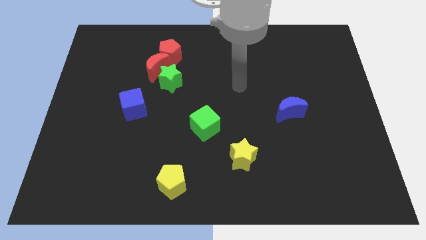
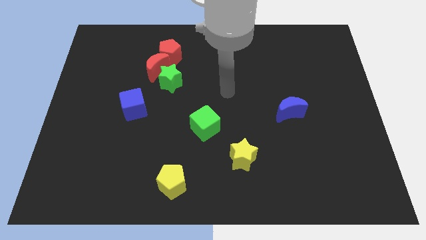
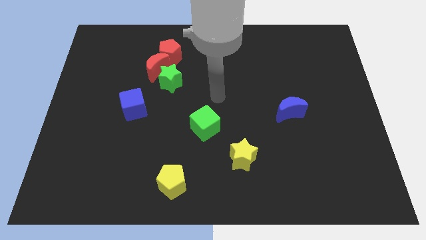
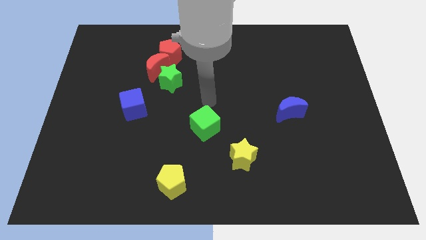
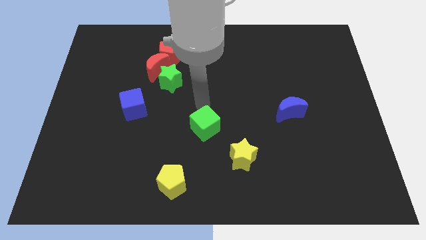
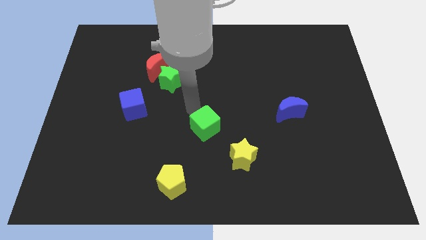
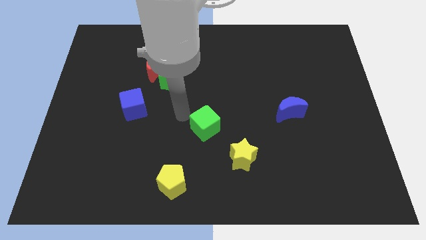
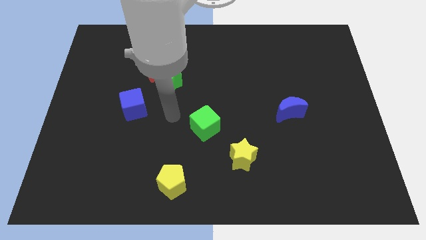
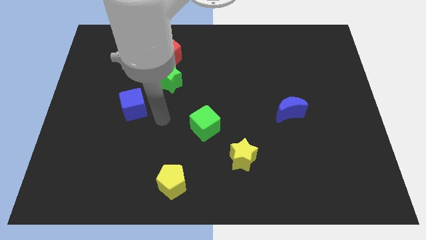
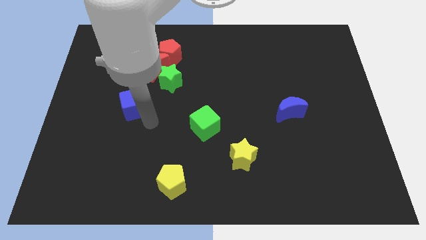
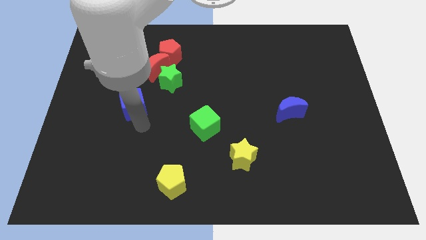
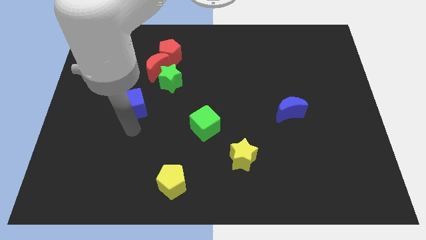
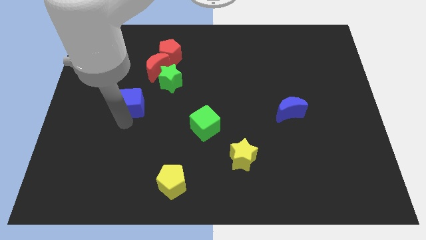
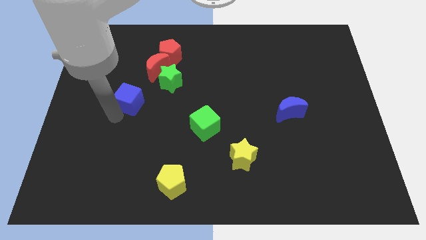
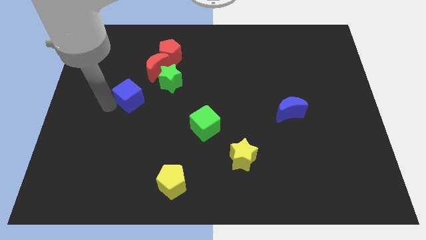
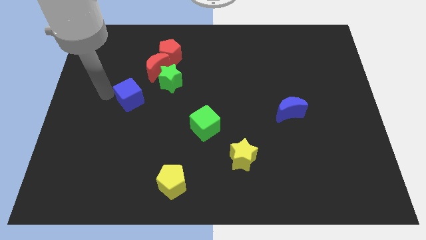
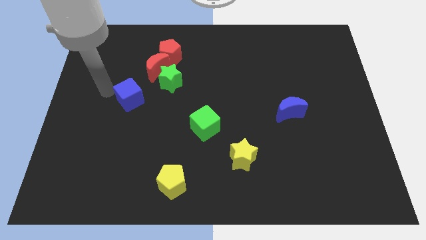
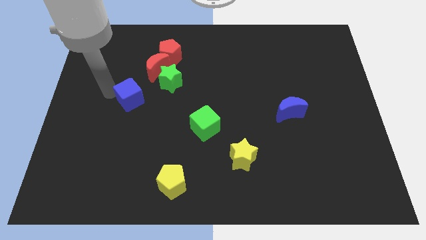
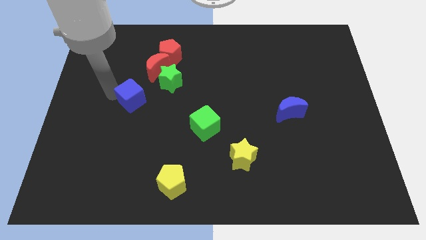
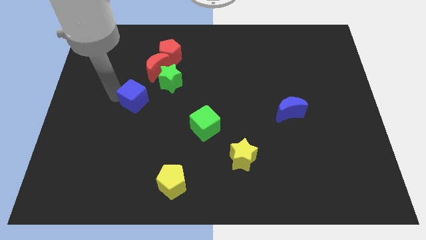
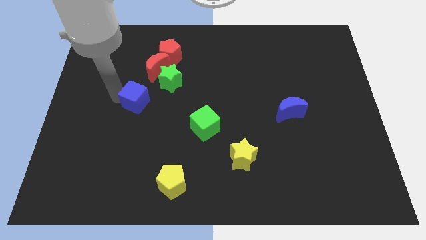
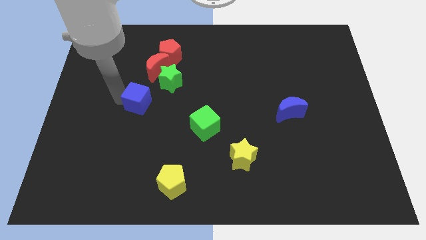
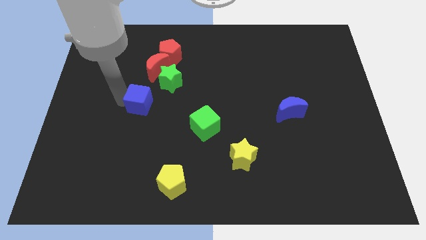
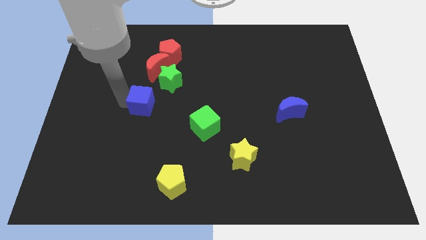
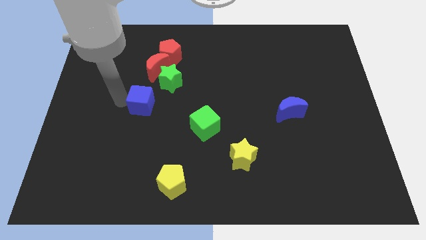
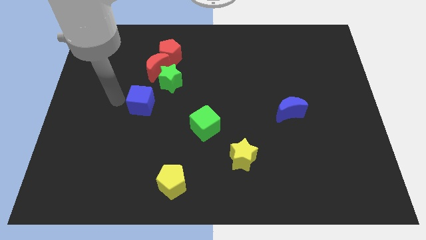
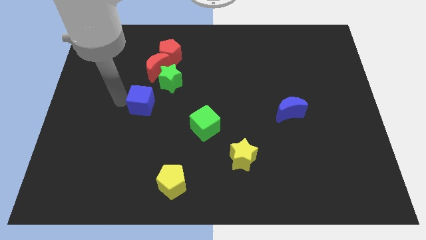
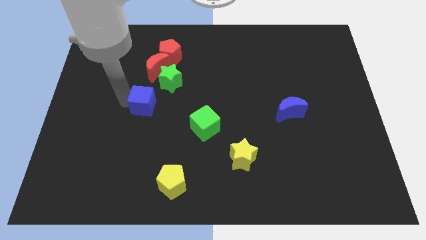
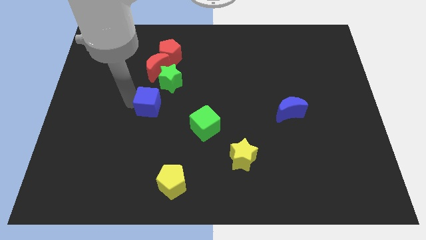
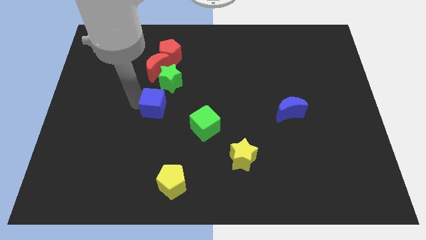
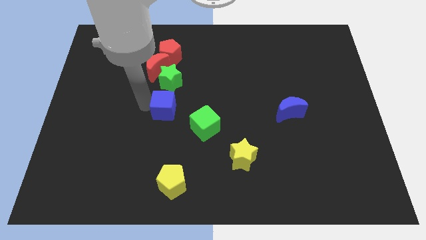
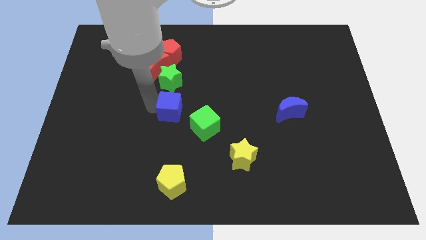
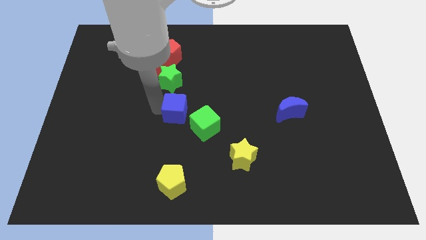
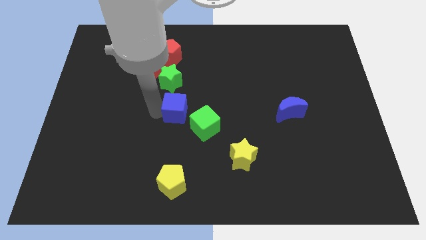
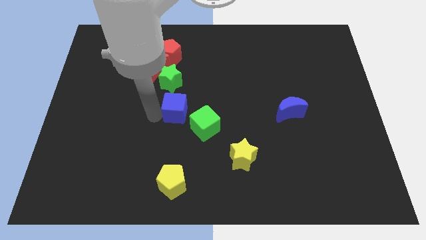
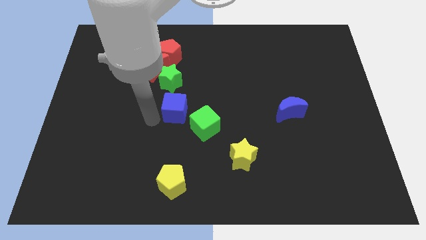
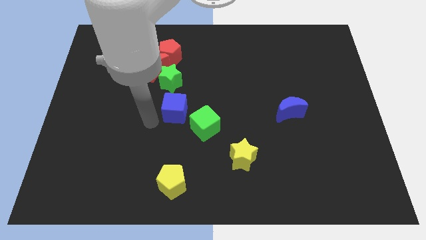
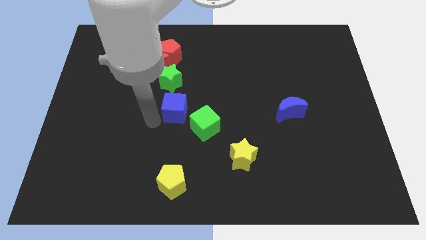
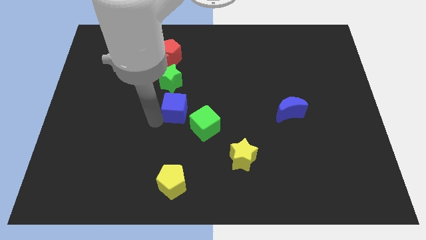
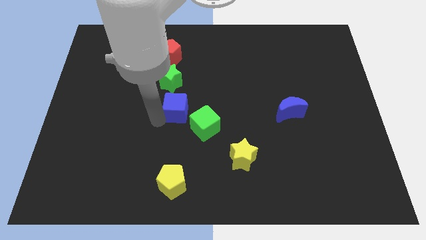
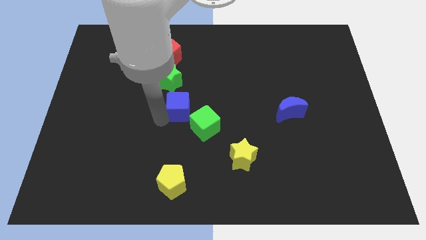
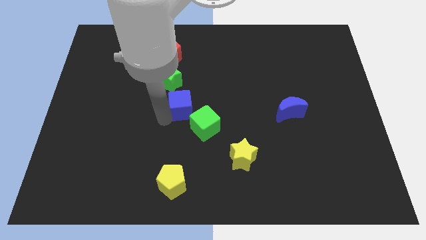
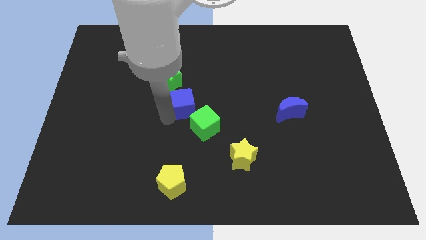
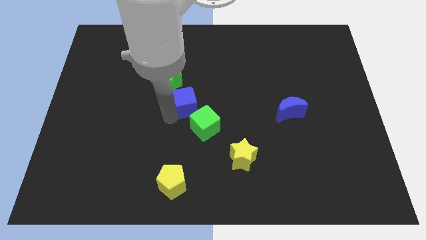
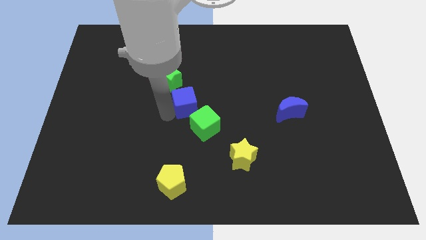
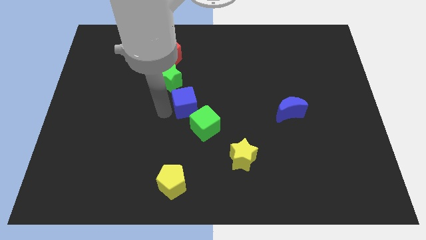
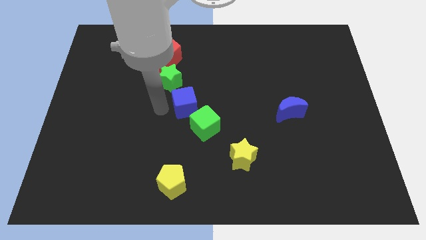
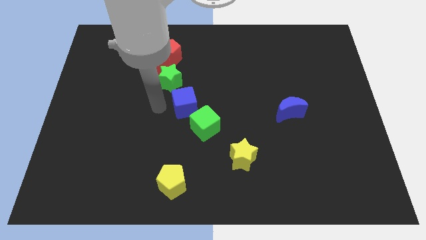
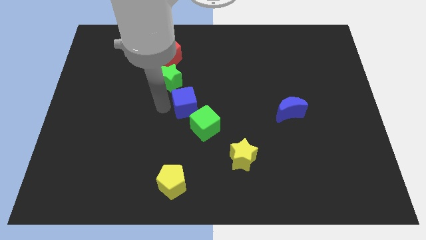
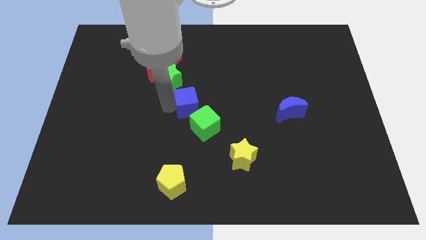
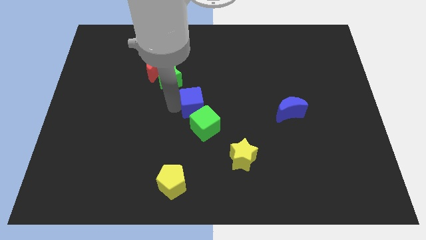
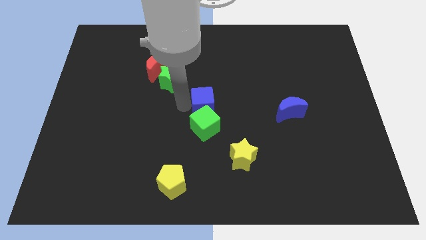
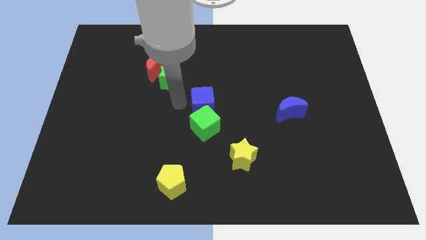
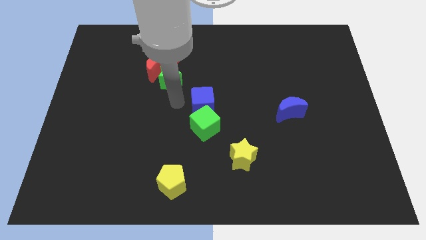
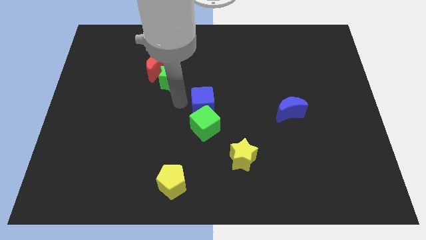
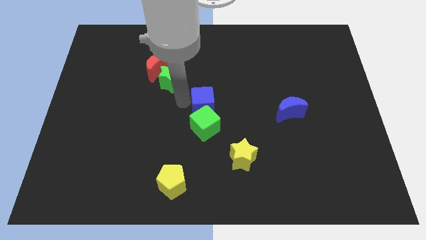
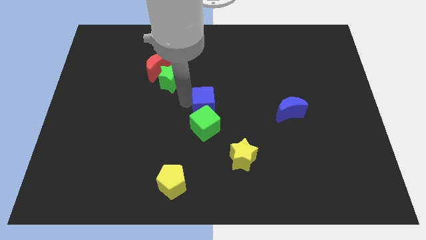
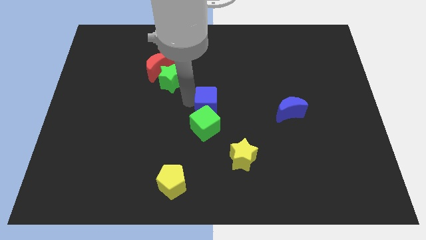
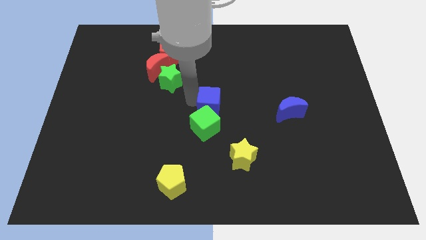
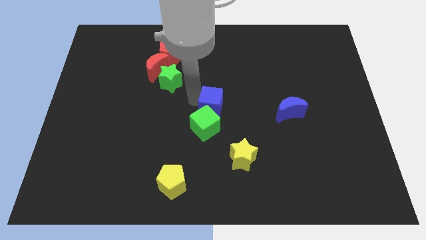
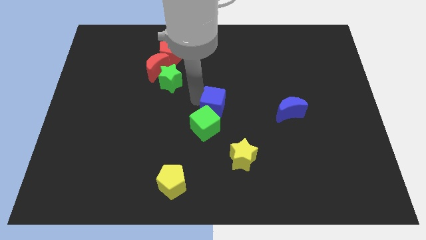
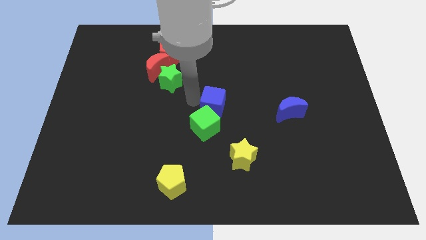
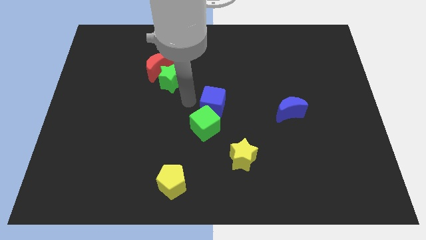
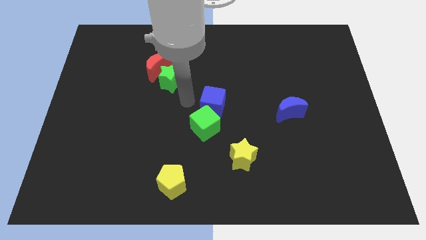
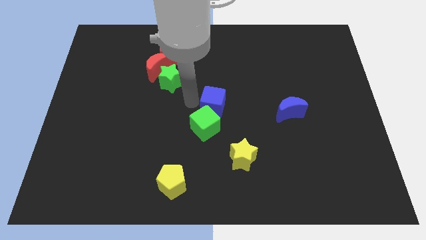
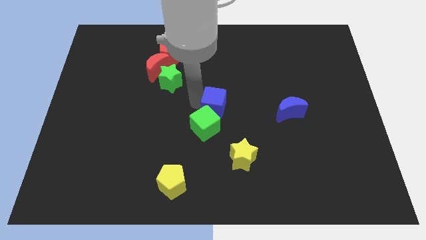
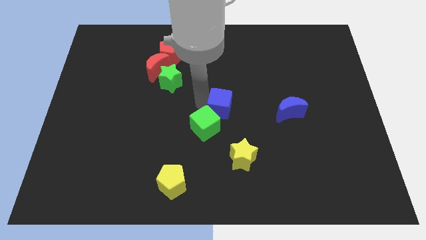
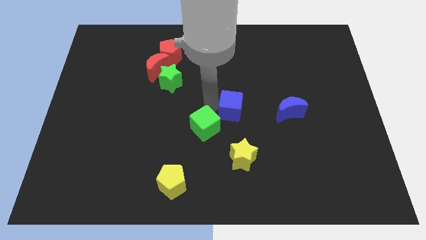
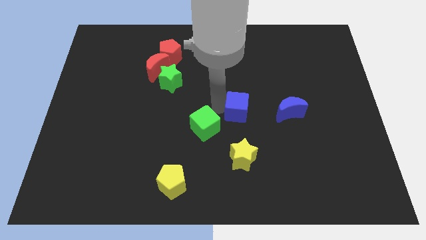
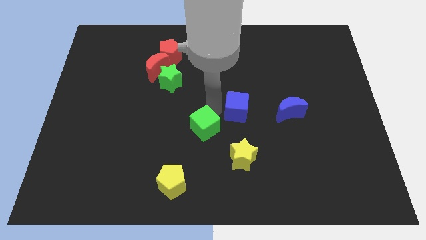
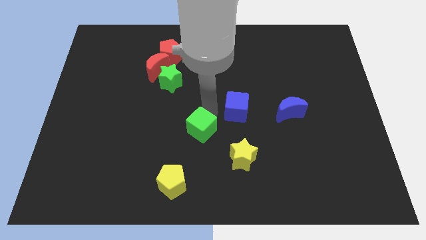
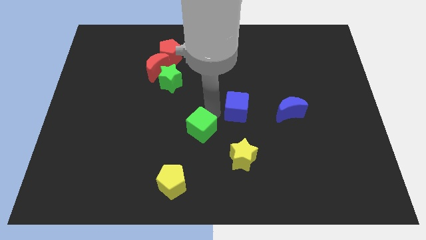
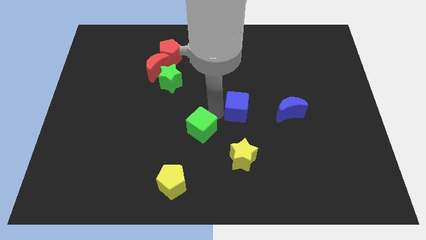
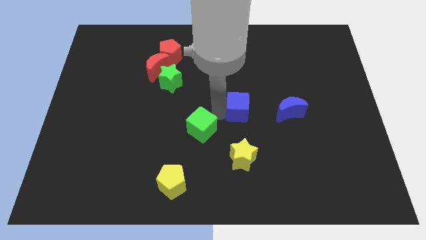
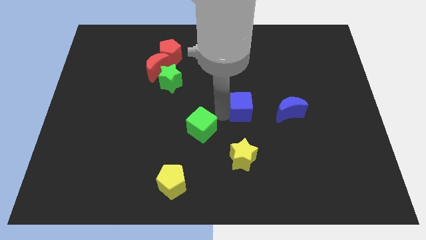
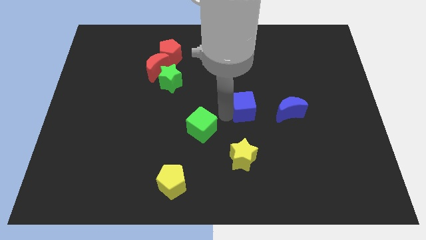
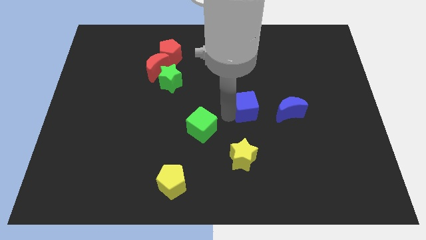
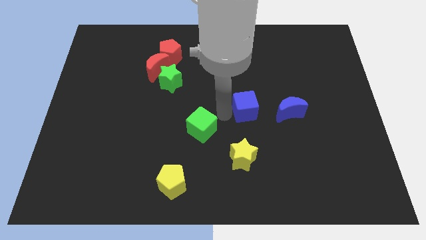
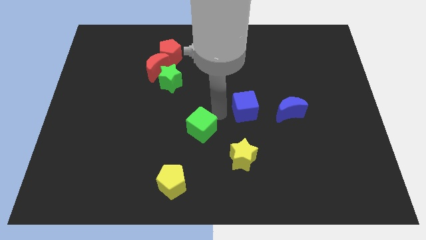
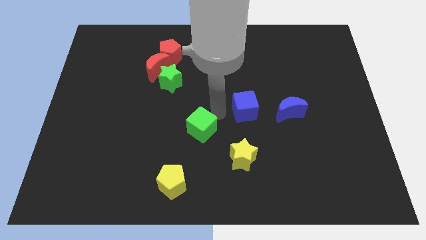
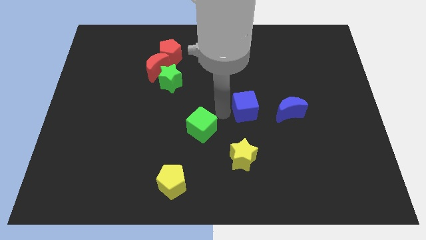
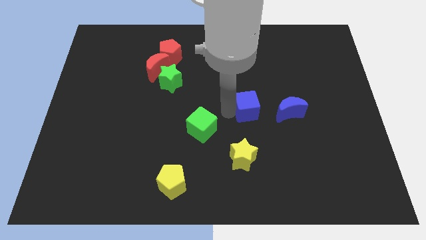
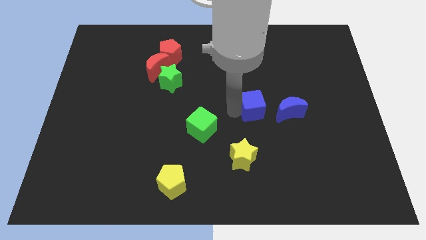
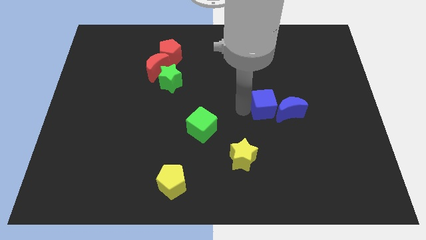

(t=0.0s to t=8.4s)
push the blue cube to the blue moon
